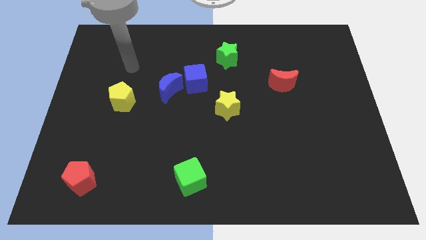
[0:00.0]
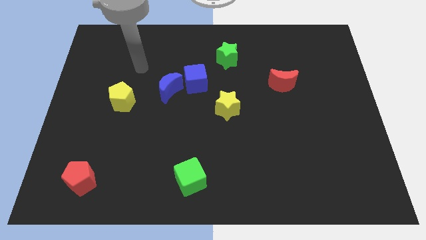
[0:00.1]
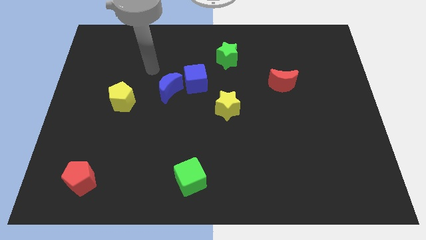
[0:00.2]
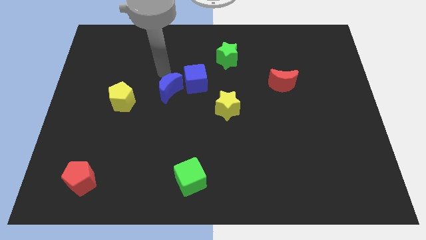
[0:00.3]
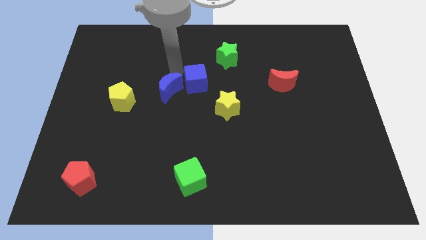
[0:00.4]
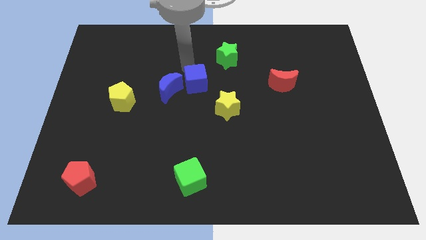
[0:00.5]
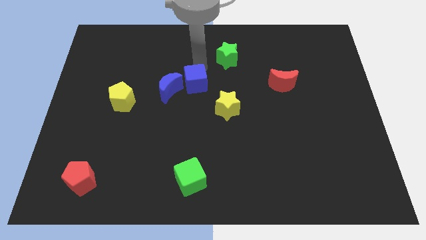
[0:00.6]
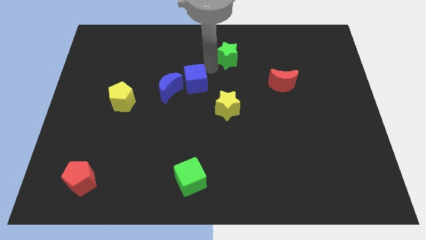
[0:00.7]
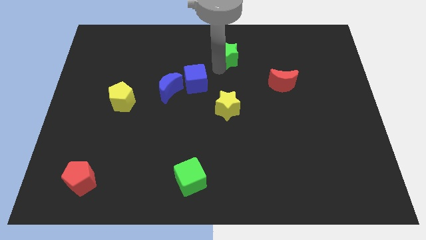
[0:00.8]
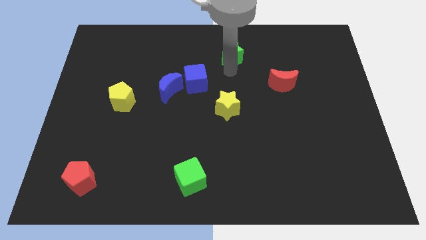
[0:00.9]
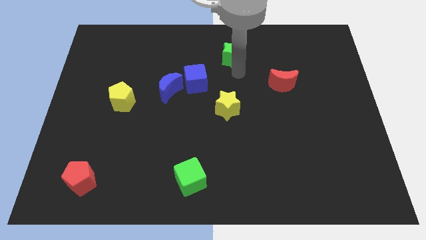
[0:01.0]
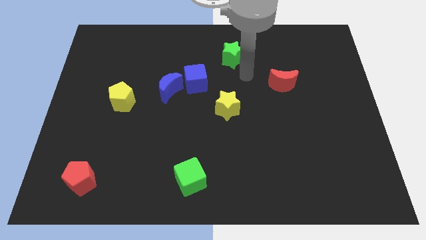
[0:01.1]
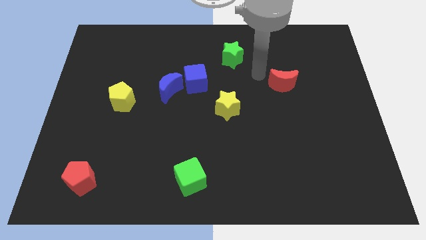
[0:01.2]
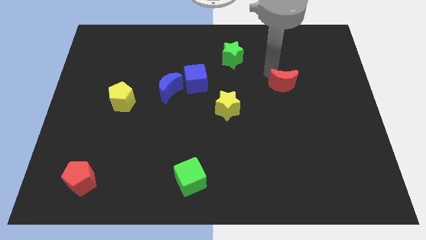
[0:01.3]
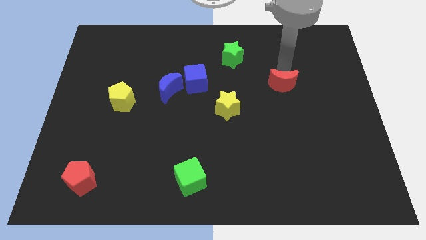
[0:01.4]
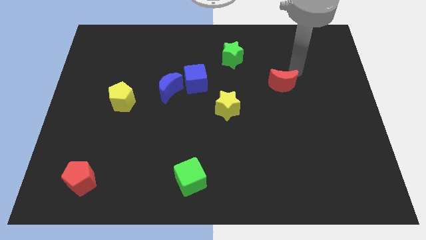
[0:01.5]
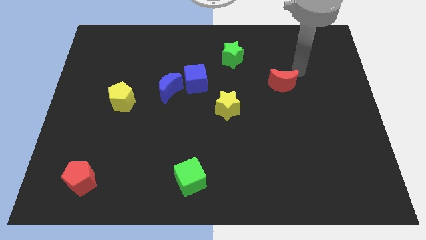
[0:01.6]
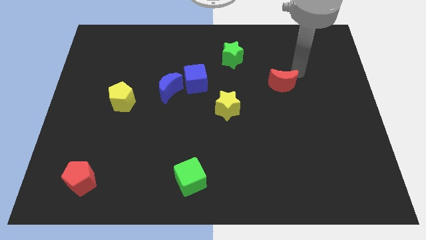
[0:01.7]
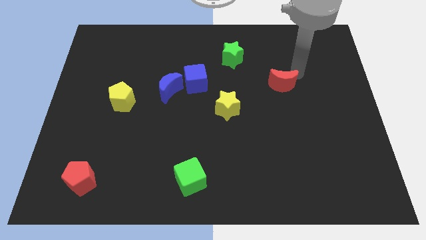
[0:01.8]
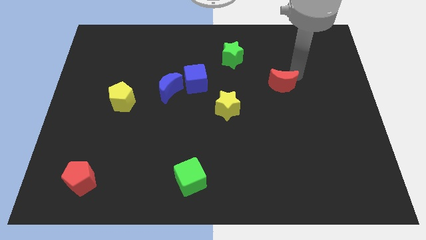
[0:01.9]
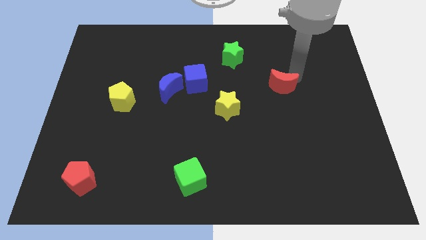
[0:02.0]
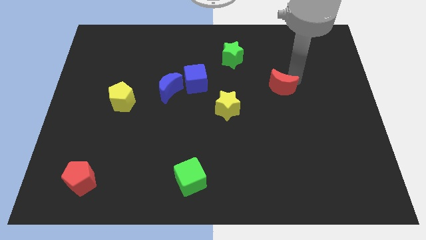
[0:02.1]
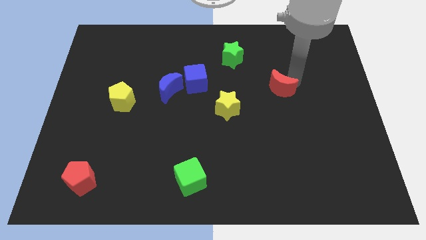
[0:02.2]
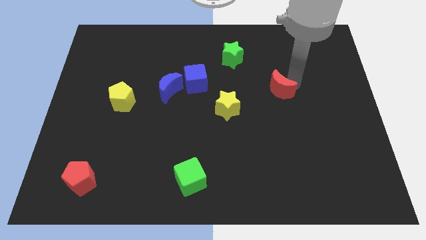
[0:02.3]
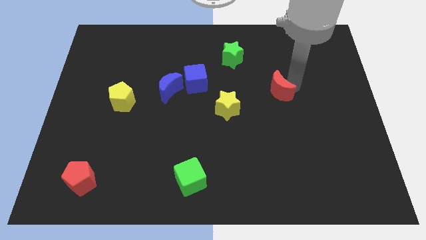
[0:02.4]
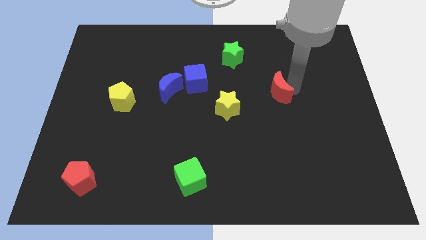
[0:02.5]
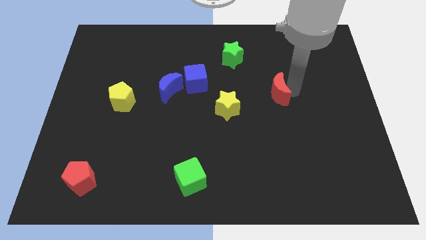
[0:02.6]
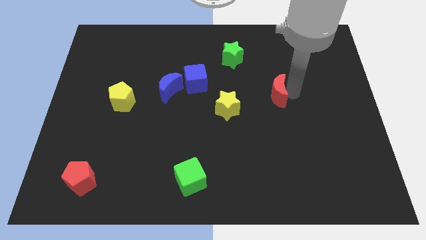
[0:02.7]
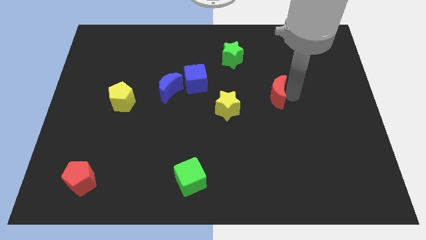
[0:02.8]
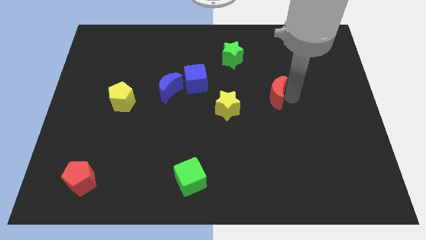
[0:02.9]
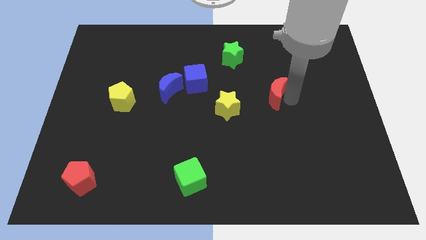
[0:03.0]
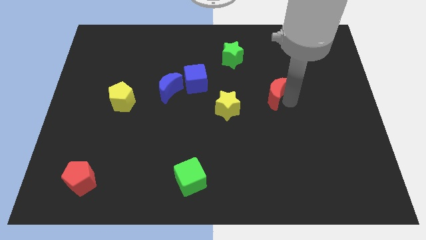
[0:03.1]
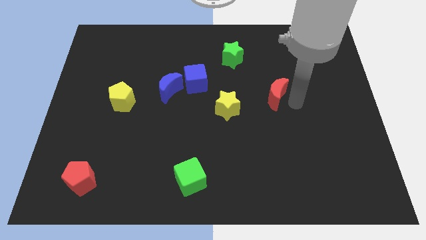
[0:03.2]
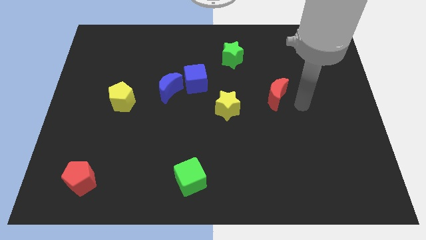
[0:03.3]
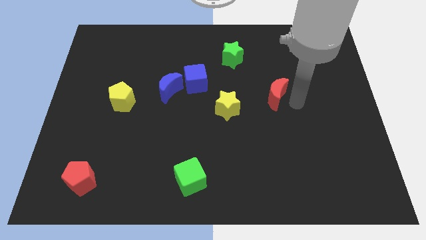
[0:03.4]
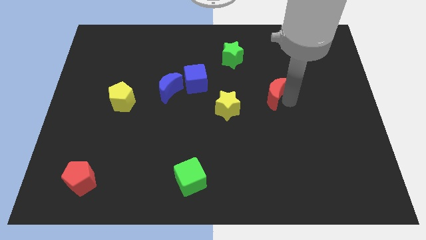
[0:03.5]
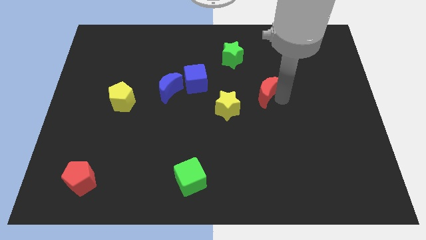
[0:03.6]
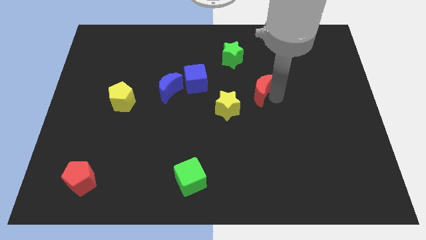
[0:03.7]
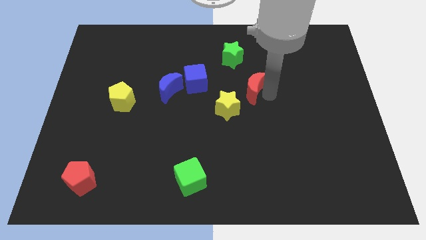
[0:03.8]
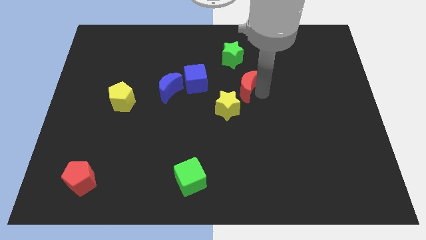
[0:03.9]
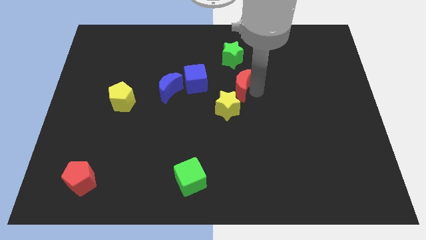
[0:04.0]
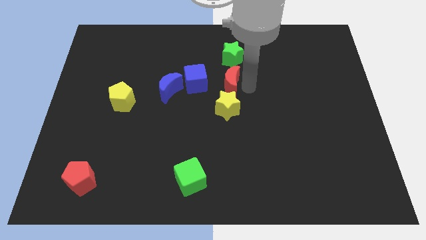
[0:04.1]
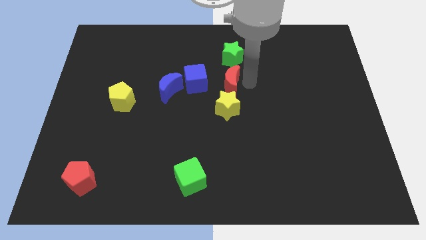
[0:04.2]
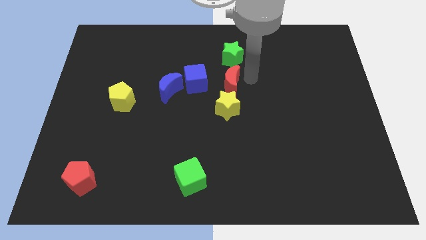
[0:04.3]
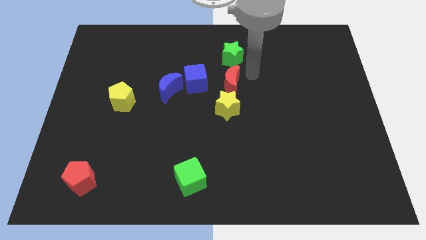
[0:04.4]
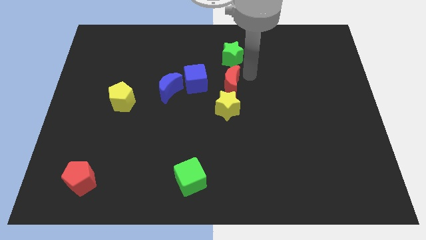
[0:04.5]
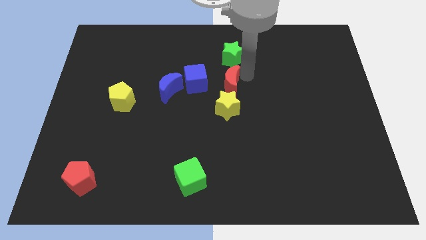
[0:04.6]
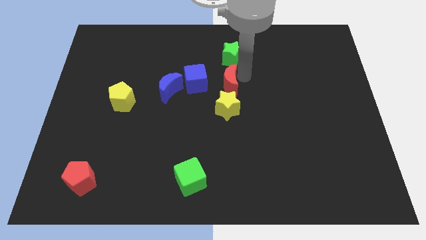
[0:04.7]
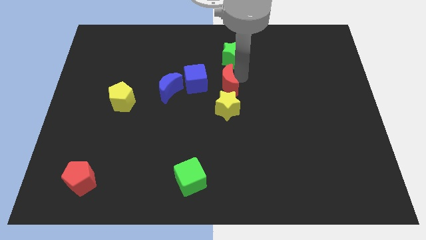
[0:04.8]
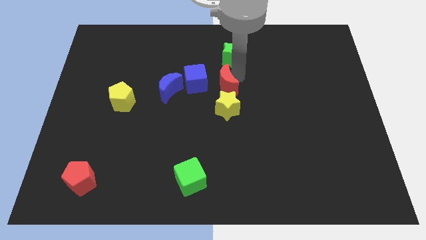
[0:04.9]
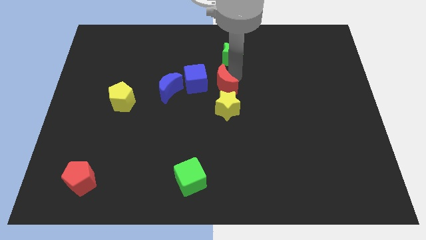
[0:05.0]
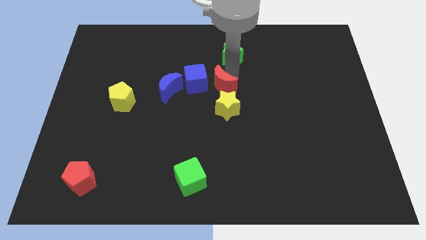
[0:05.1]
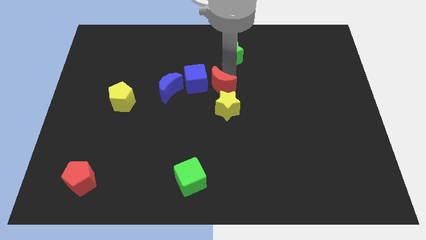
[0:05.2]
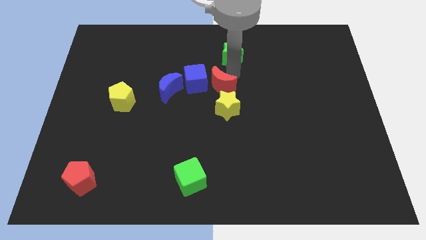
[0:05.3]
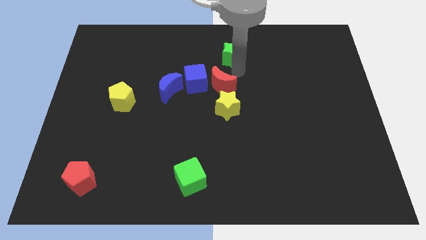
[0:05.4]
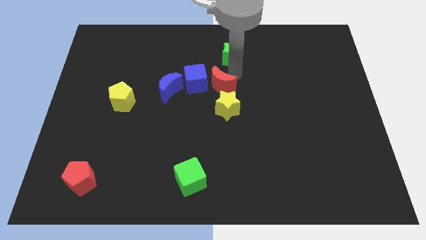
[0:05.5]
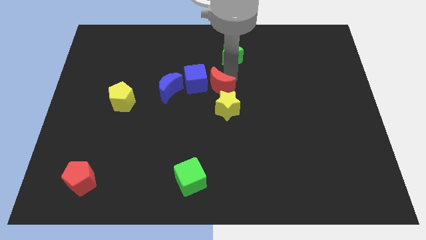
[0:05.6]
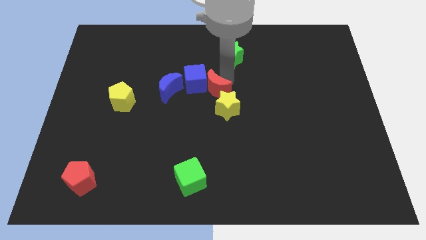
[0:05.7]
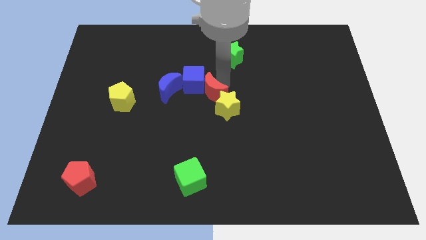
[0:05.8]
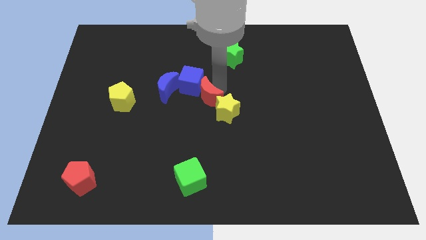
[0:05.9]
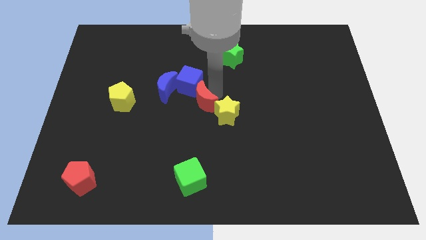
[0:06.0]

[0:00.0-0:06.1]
put the red moon to the bottom right side of the blue moon

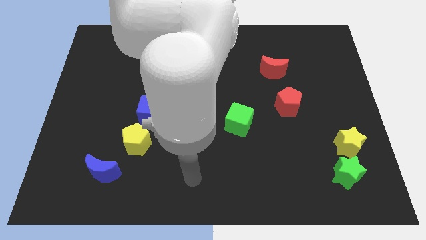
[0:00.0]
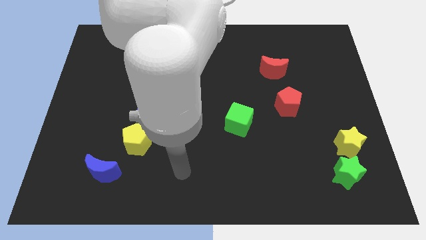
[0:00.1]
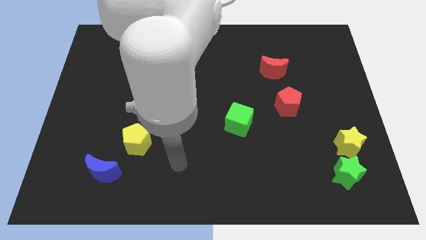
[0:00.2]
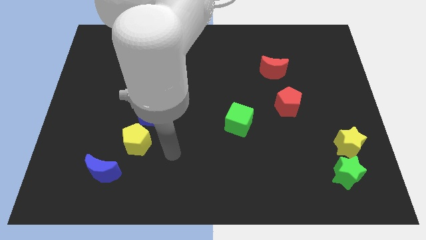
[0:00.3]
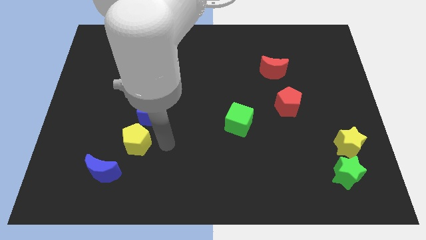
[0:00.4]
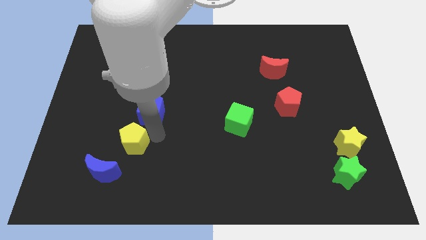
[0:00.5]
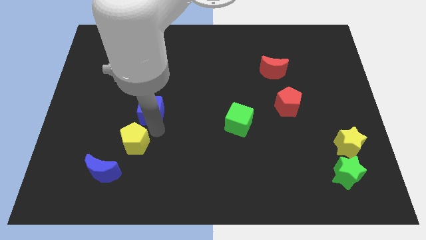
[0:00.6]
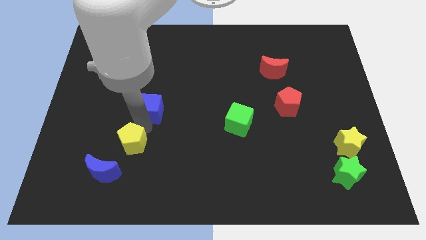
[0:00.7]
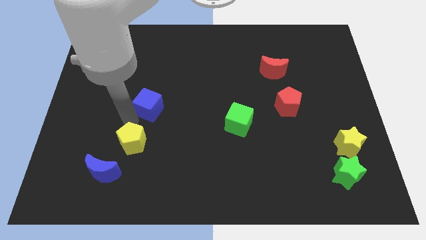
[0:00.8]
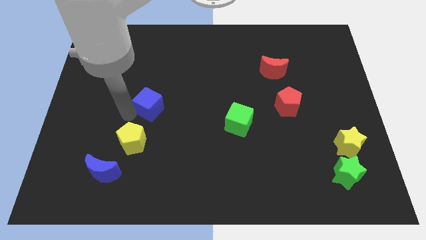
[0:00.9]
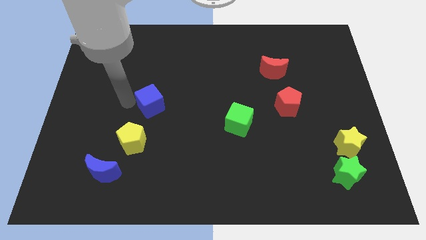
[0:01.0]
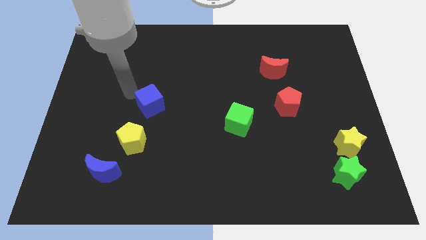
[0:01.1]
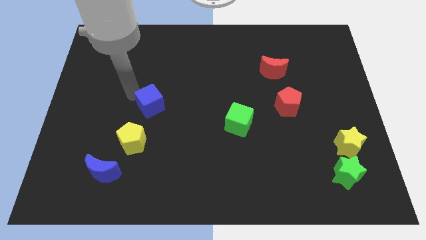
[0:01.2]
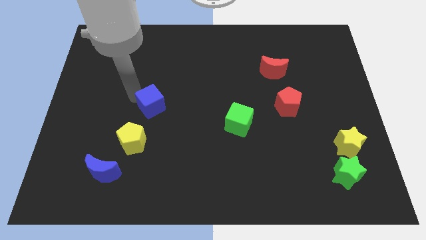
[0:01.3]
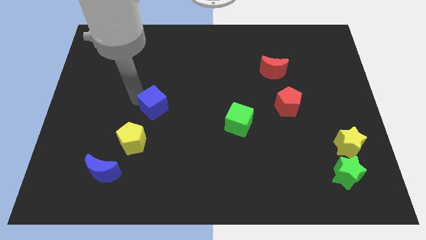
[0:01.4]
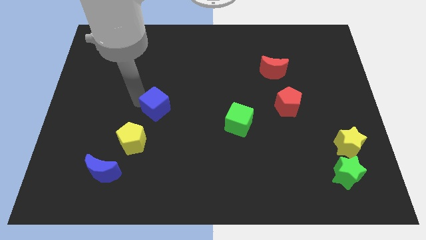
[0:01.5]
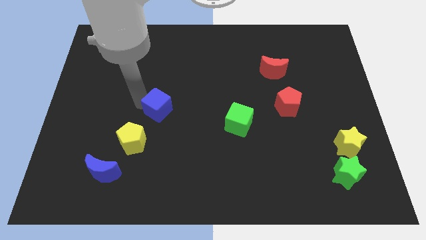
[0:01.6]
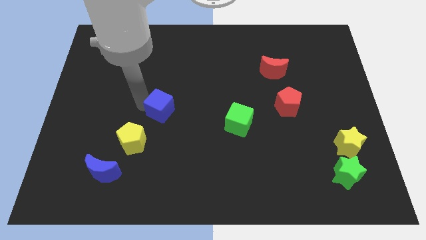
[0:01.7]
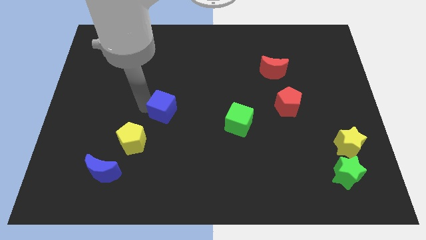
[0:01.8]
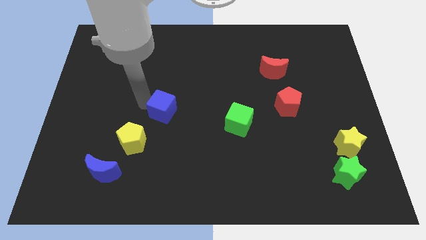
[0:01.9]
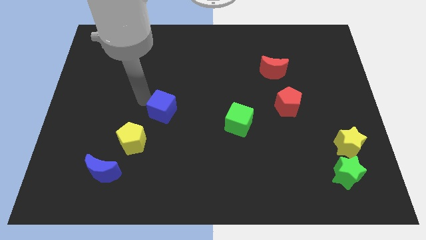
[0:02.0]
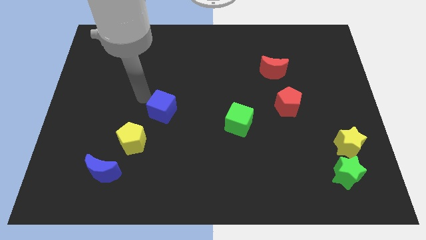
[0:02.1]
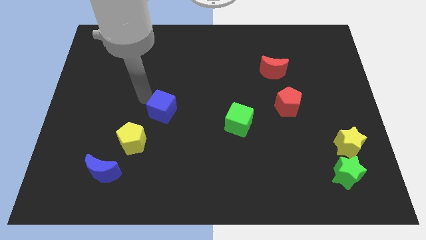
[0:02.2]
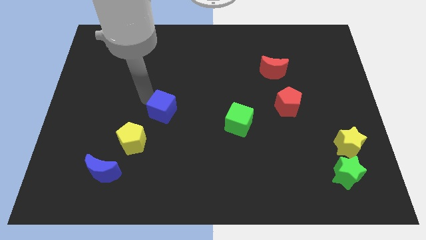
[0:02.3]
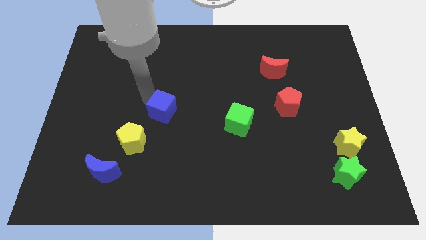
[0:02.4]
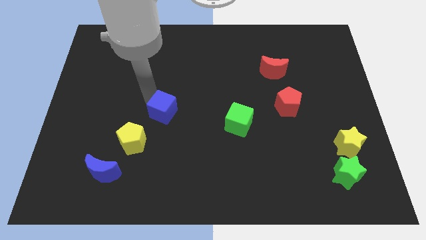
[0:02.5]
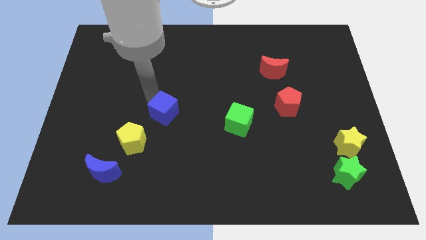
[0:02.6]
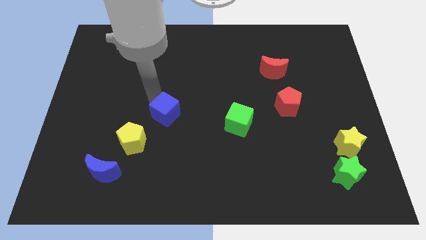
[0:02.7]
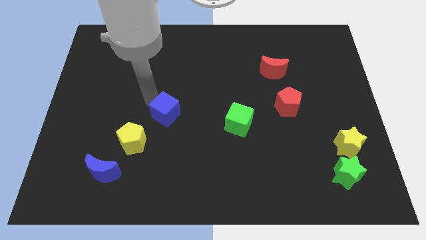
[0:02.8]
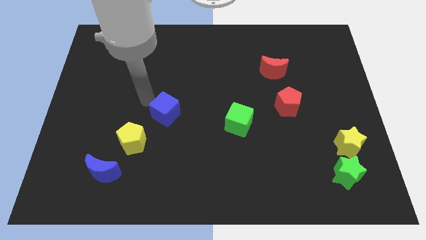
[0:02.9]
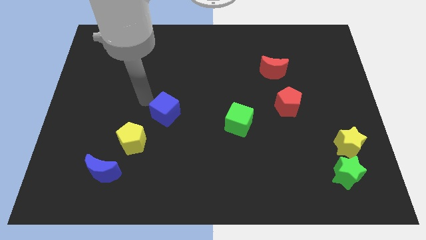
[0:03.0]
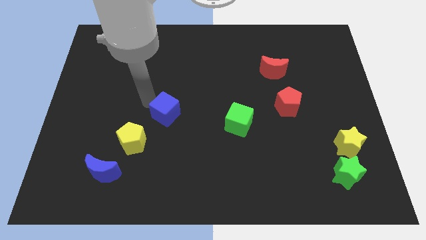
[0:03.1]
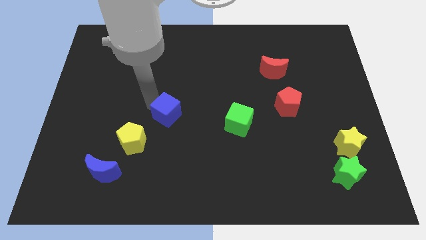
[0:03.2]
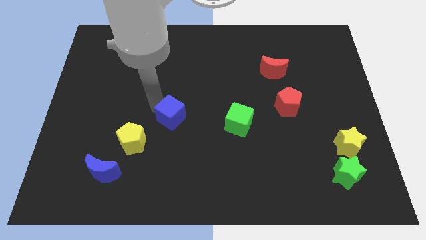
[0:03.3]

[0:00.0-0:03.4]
push the blue cube to the left side of the green cube
